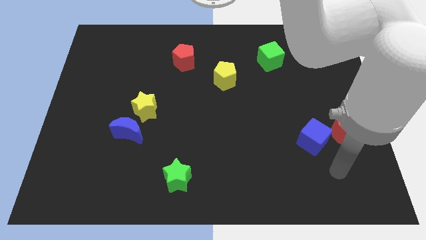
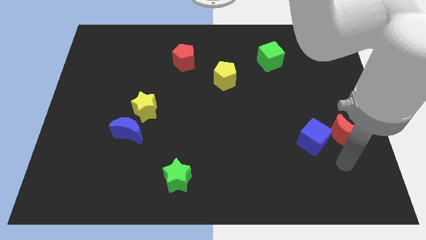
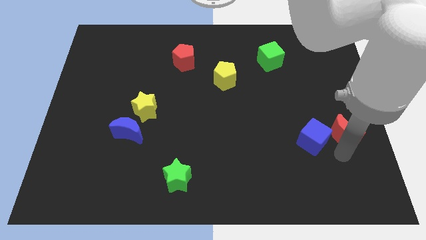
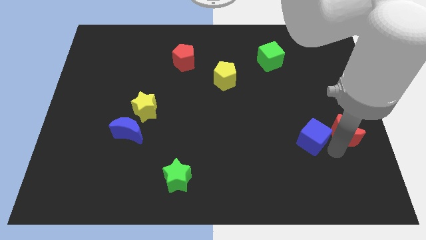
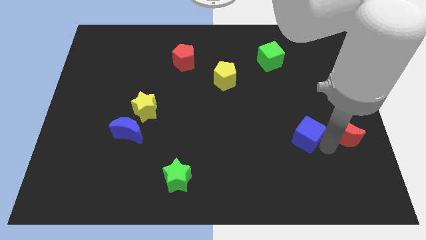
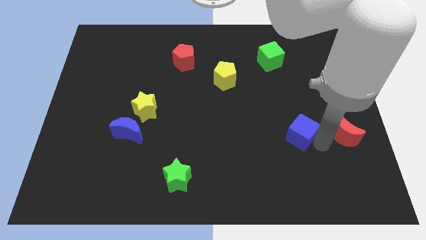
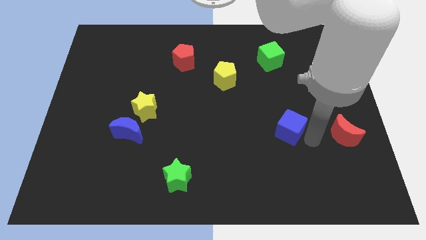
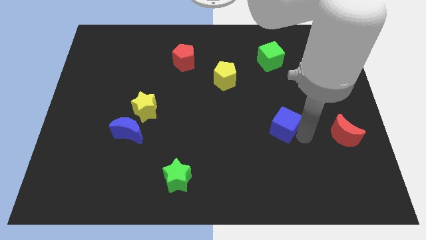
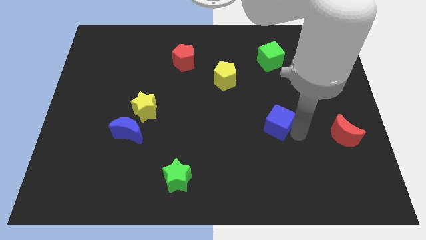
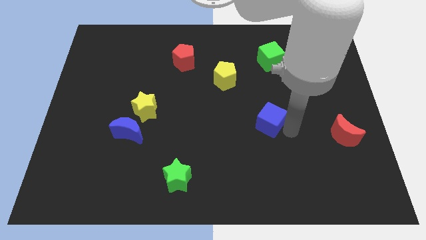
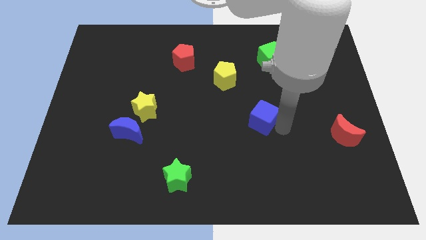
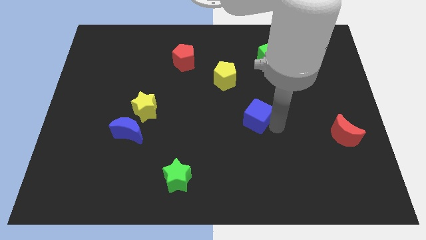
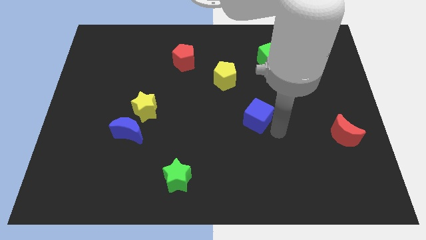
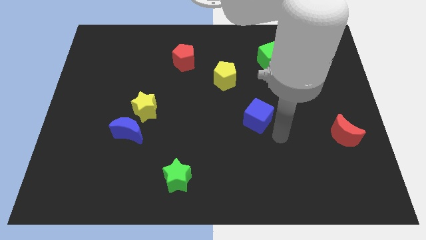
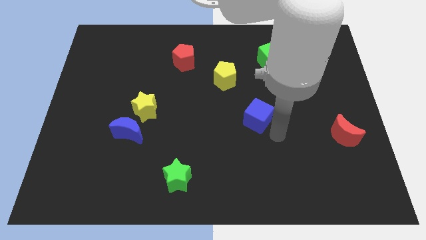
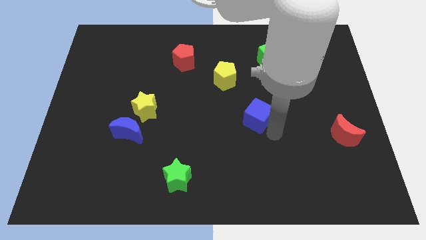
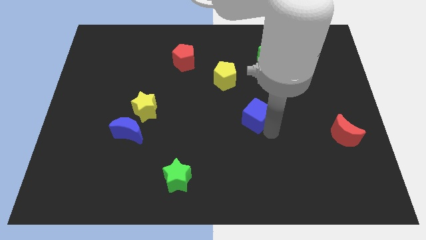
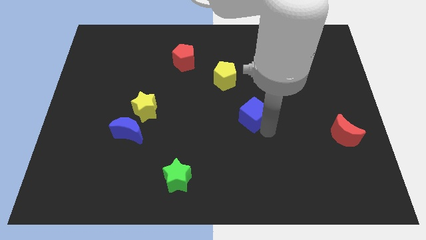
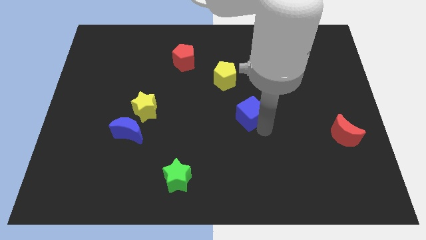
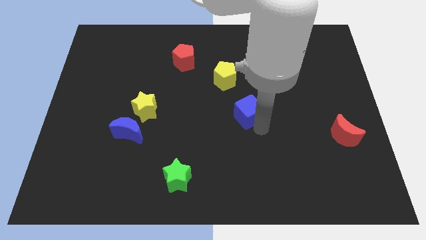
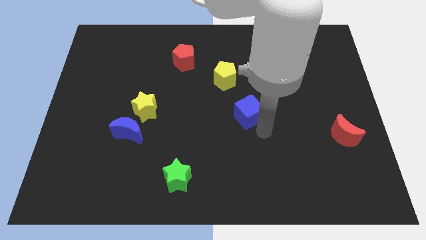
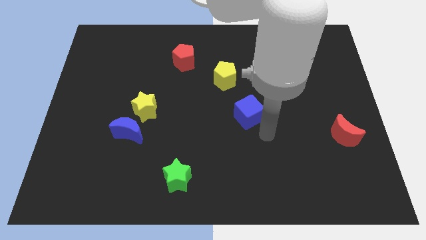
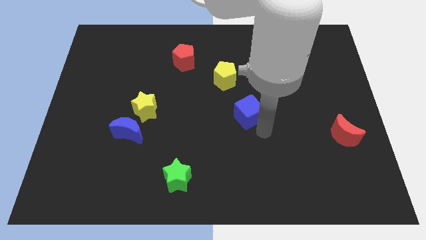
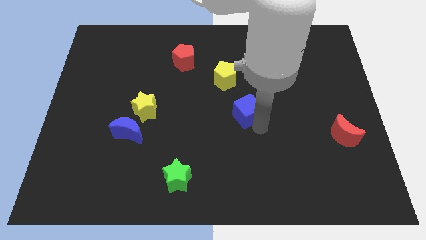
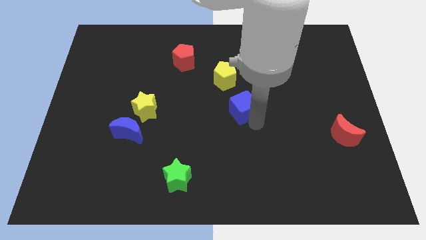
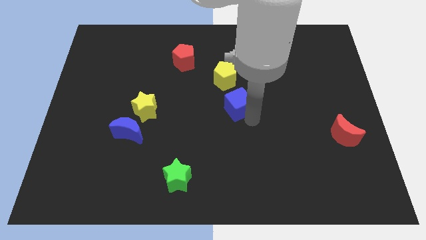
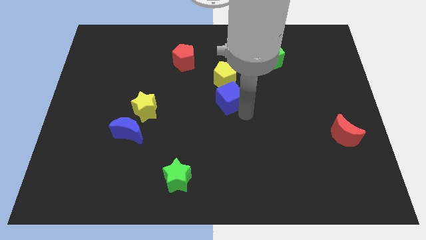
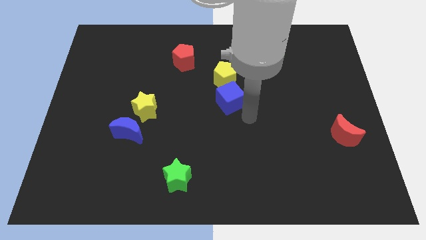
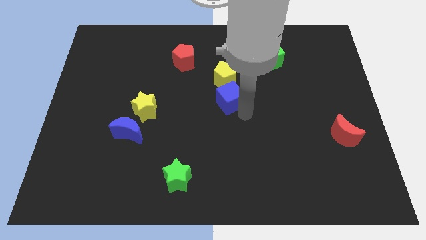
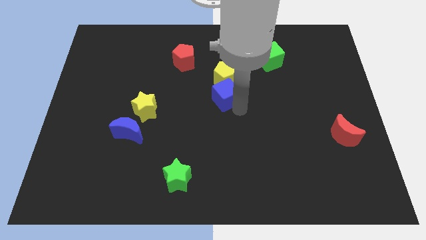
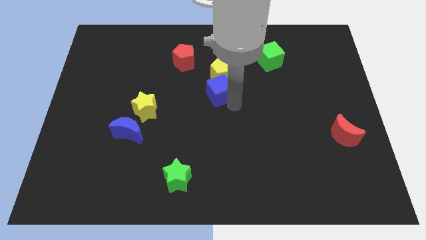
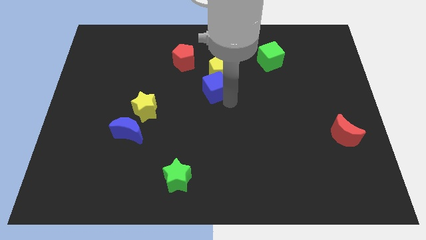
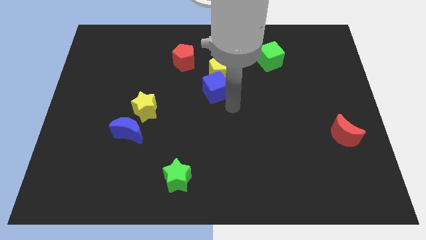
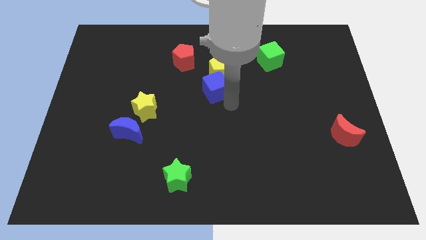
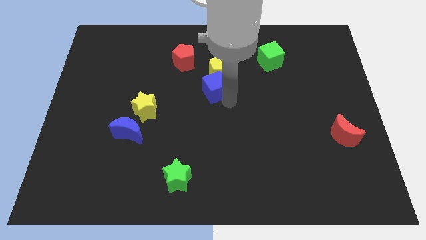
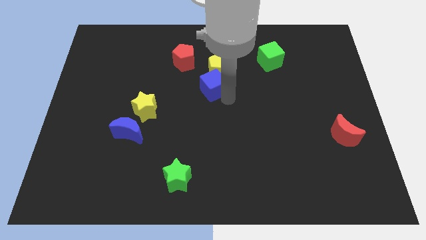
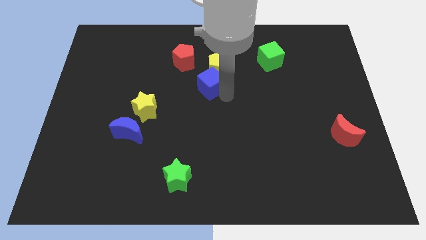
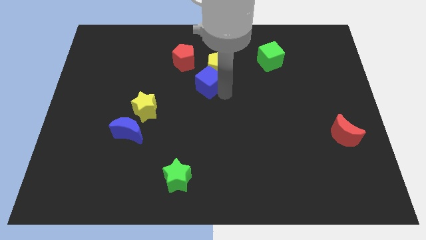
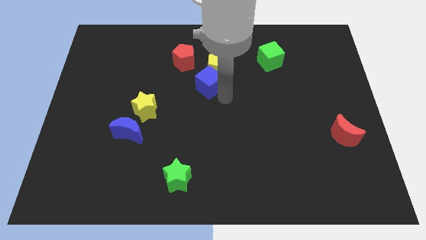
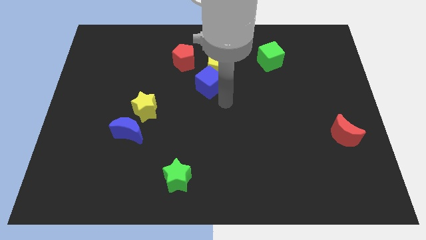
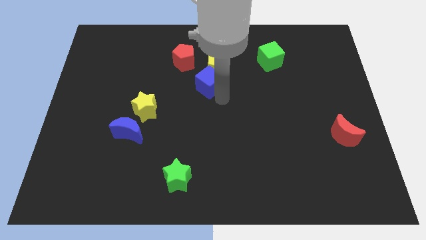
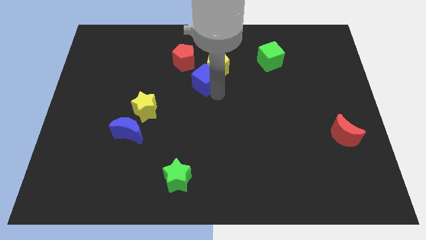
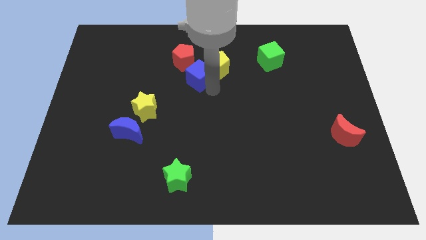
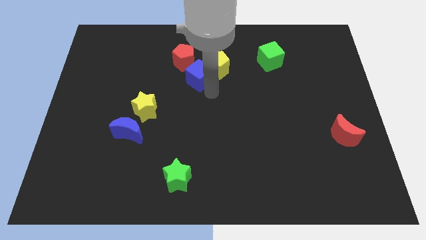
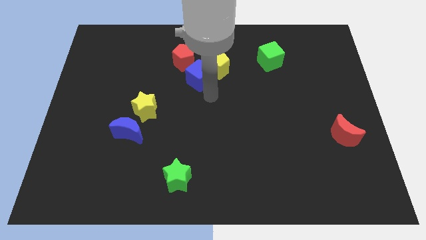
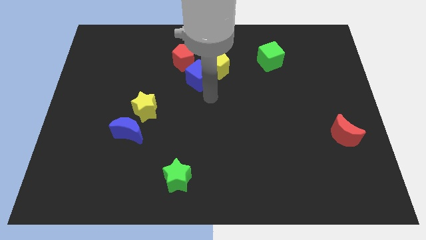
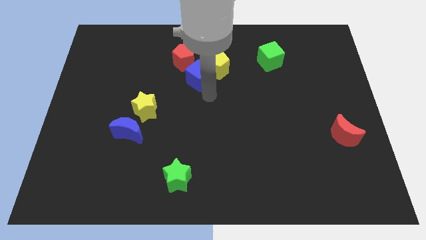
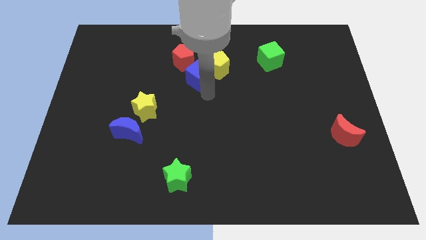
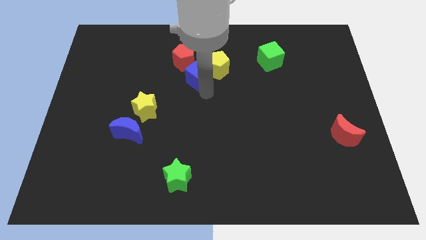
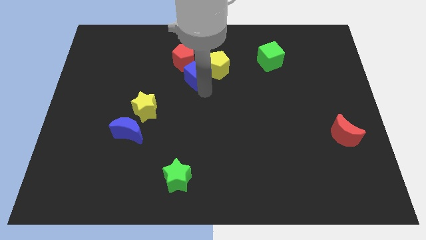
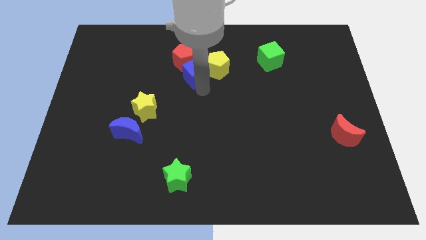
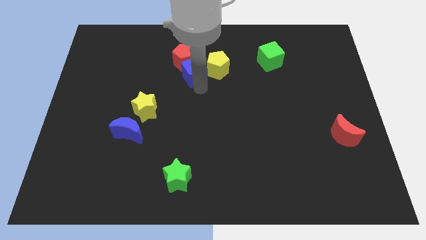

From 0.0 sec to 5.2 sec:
move the blue cube towards the red pentagon

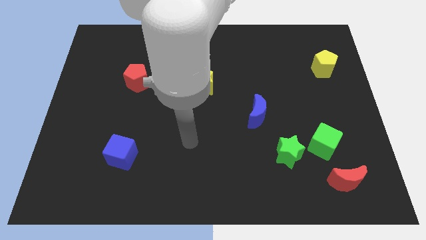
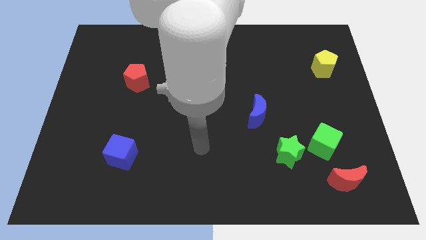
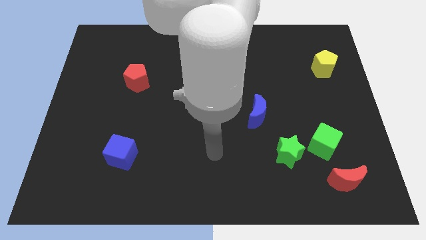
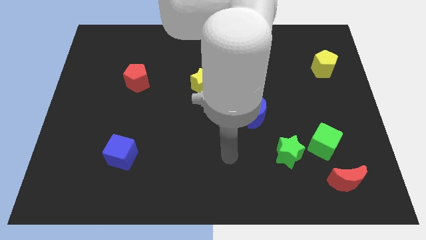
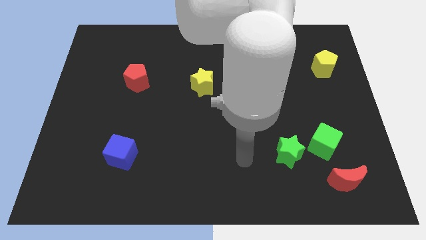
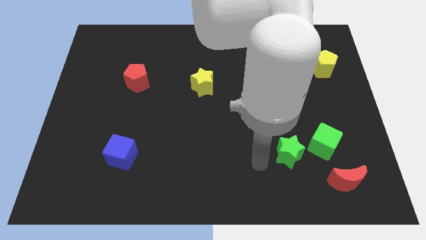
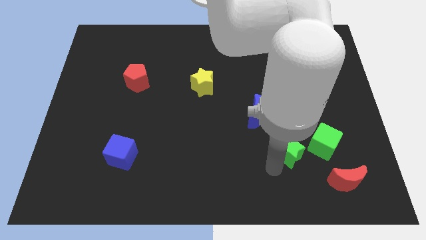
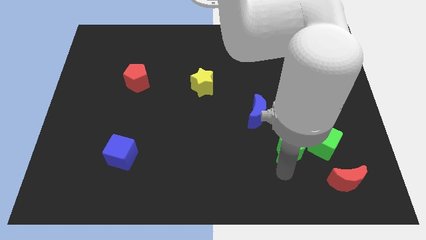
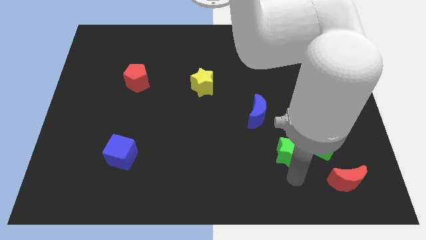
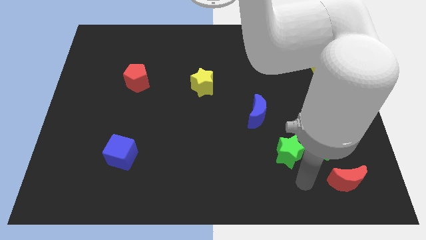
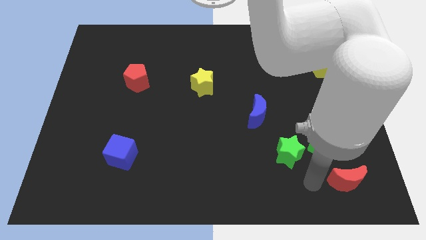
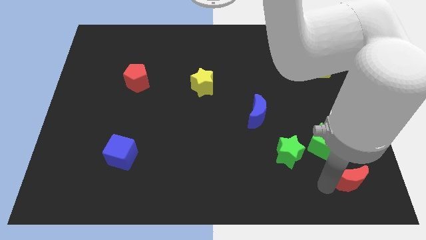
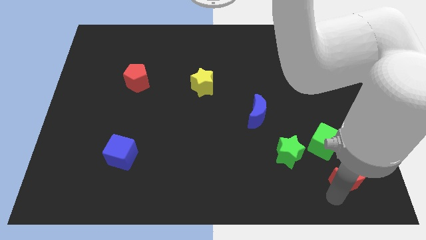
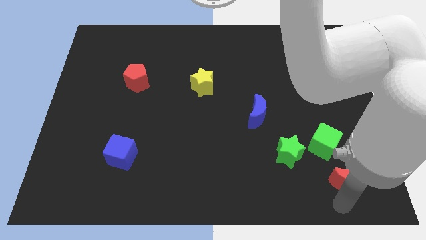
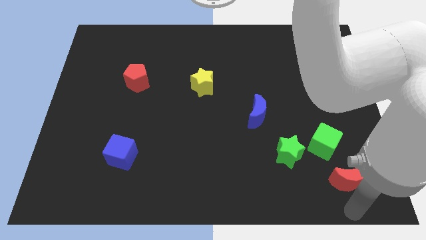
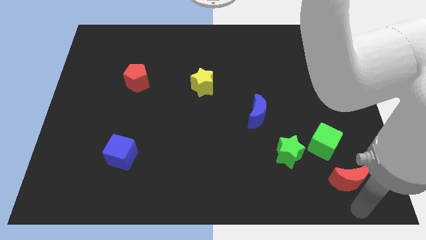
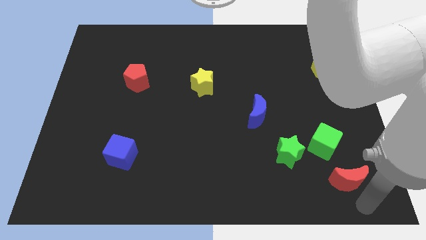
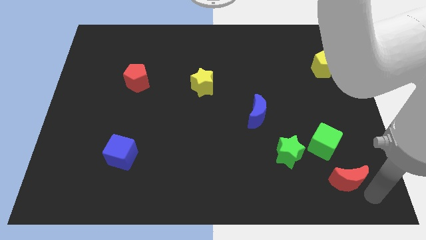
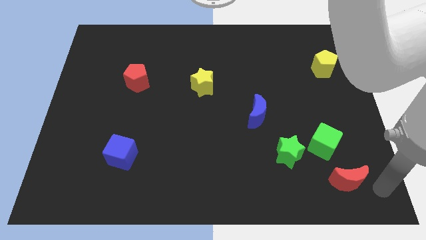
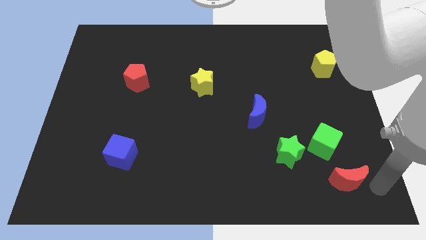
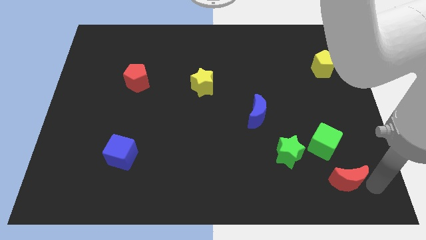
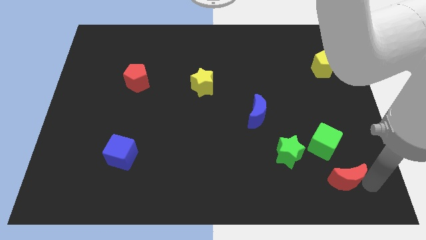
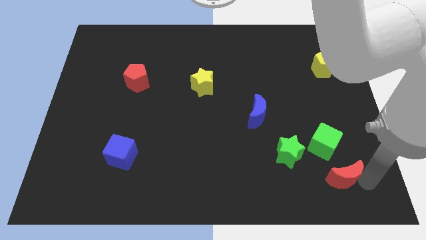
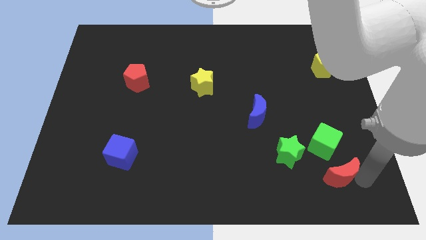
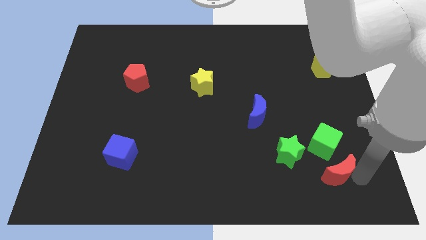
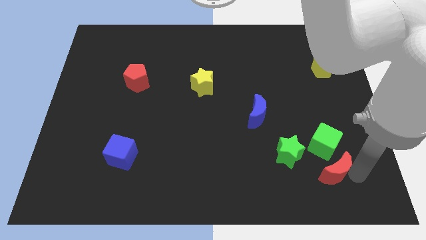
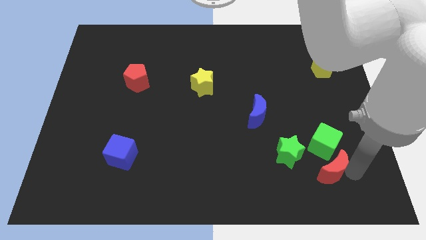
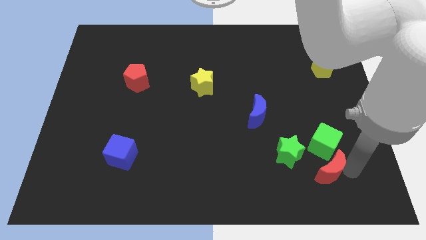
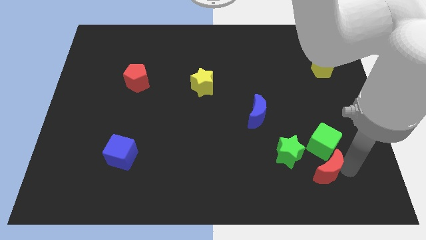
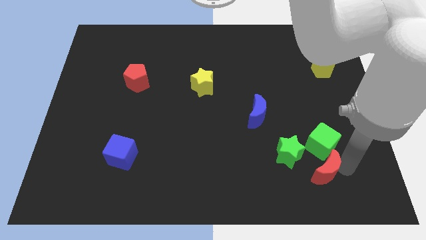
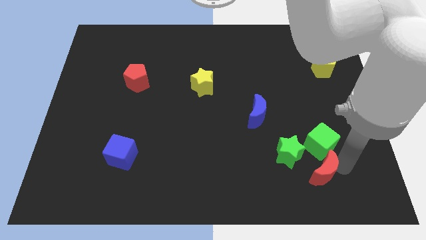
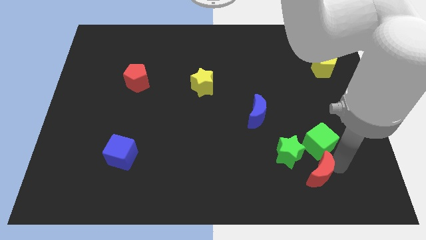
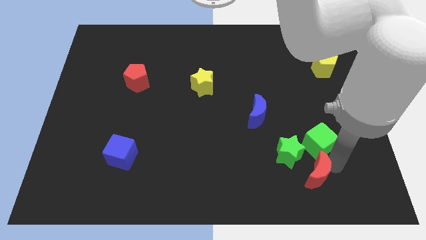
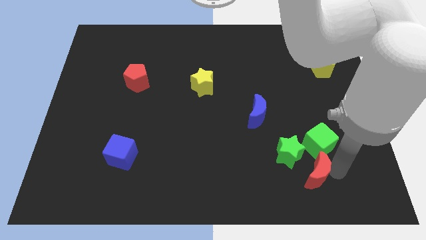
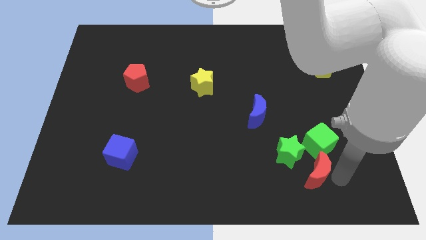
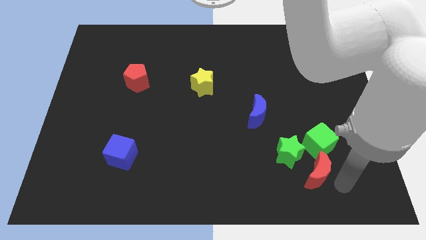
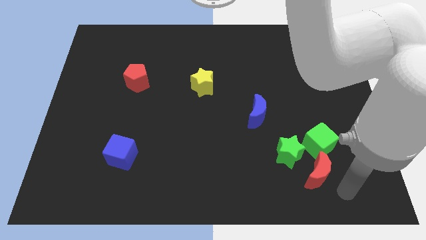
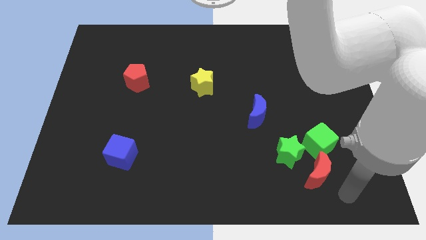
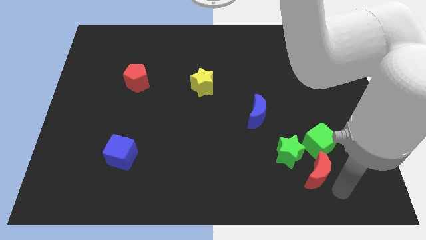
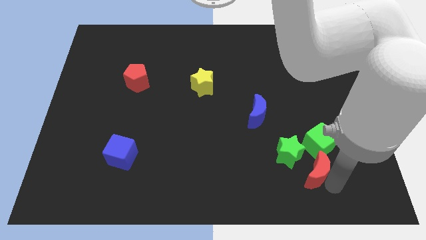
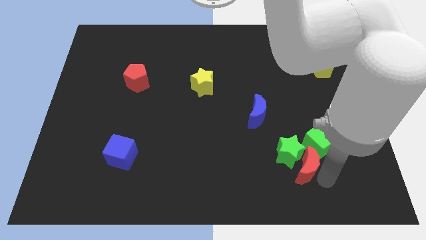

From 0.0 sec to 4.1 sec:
put the red moon towards the green star
